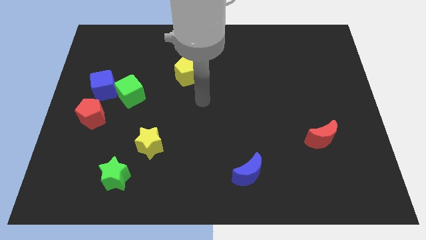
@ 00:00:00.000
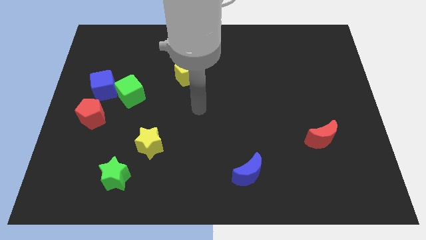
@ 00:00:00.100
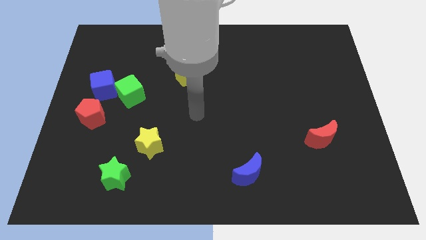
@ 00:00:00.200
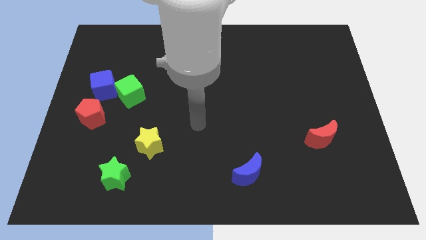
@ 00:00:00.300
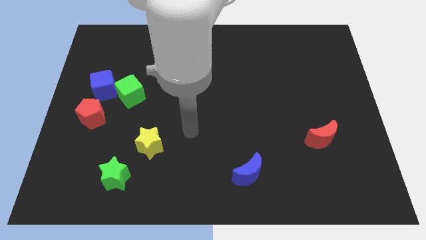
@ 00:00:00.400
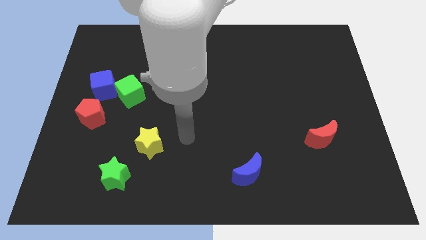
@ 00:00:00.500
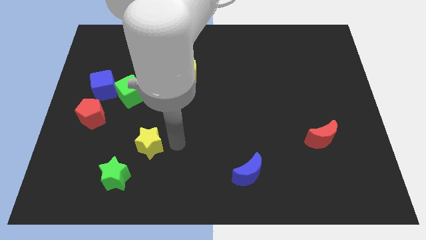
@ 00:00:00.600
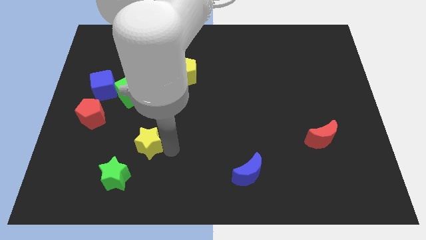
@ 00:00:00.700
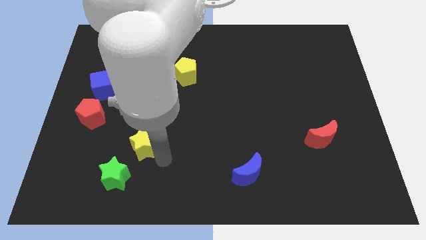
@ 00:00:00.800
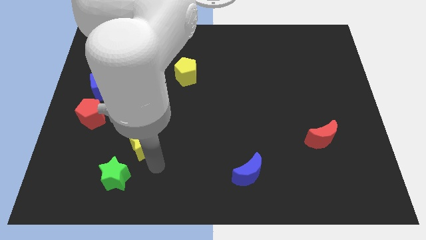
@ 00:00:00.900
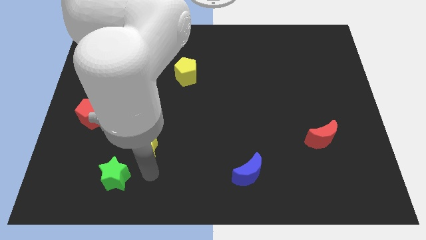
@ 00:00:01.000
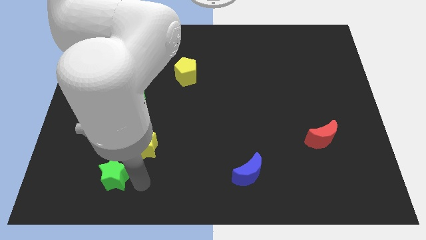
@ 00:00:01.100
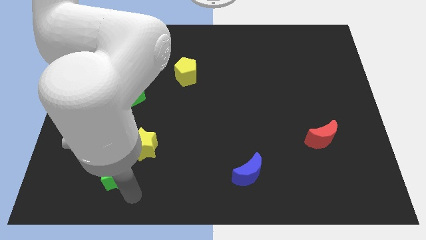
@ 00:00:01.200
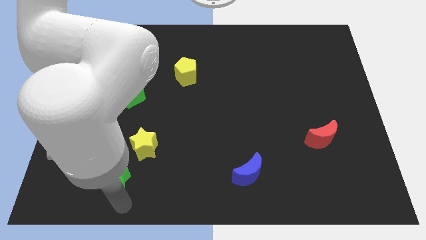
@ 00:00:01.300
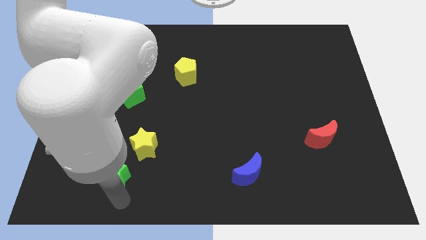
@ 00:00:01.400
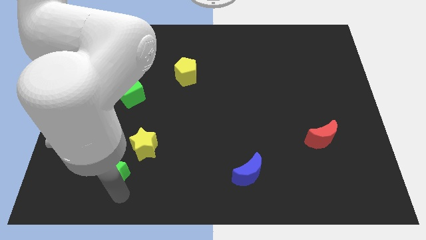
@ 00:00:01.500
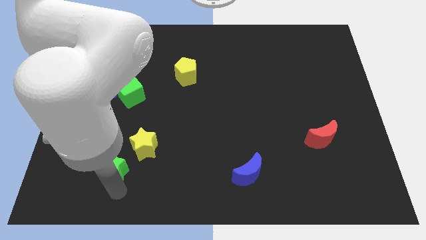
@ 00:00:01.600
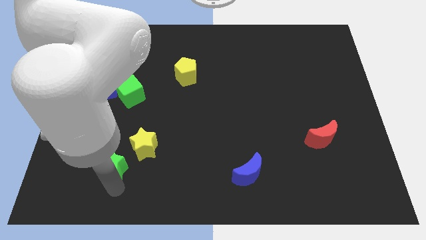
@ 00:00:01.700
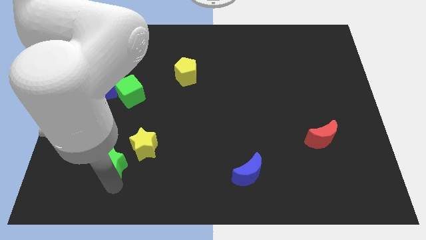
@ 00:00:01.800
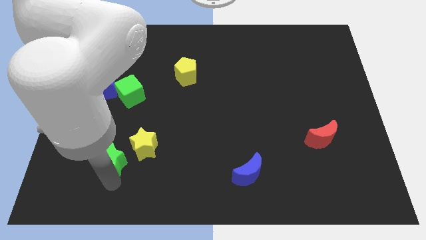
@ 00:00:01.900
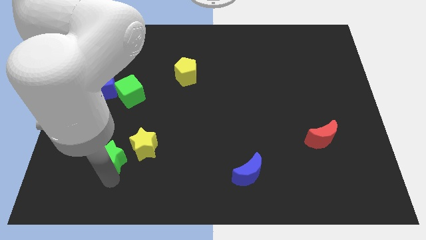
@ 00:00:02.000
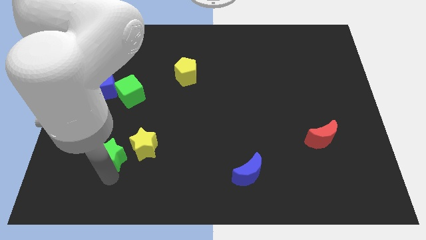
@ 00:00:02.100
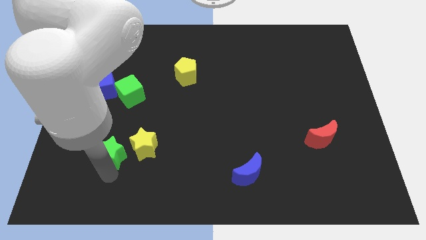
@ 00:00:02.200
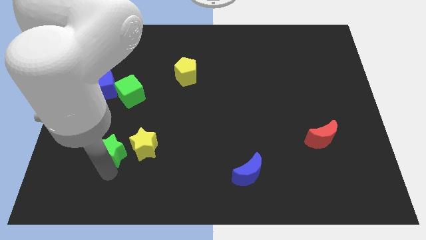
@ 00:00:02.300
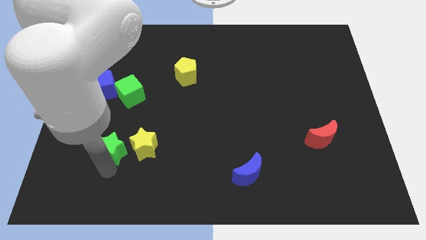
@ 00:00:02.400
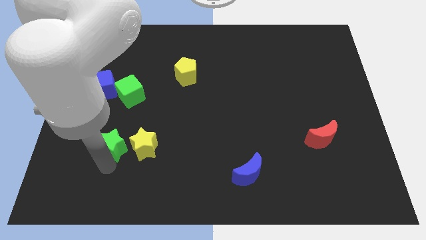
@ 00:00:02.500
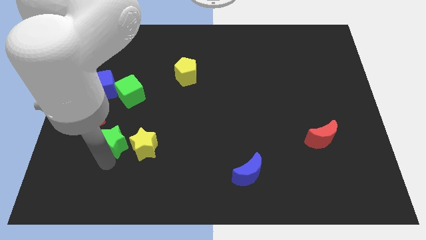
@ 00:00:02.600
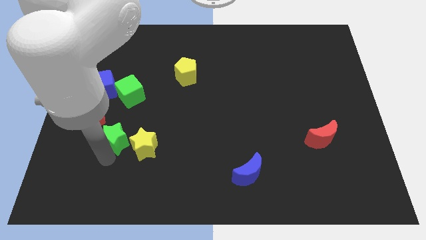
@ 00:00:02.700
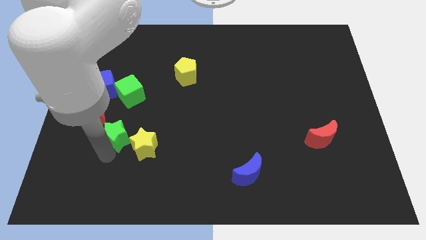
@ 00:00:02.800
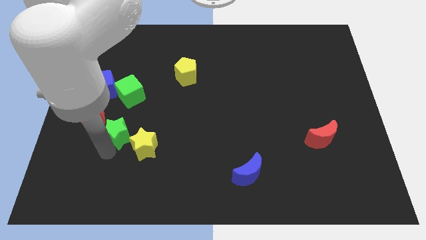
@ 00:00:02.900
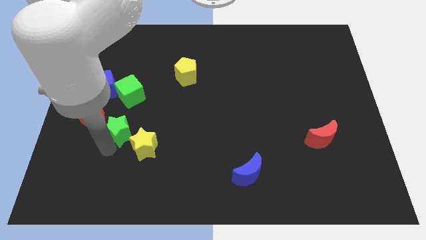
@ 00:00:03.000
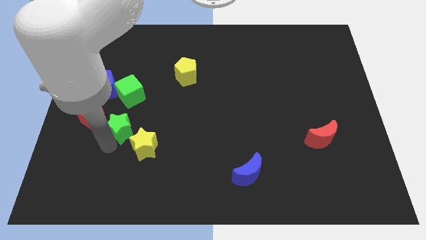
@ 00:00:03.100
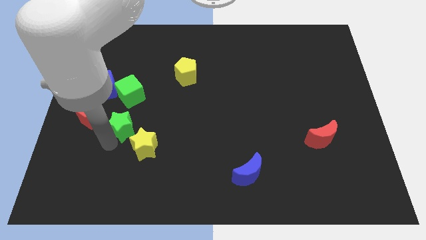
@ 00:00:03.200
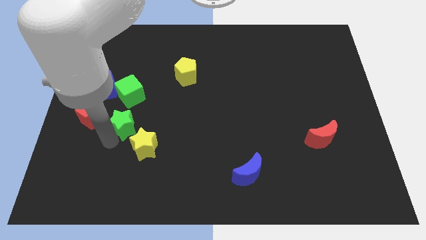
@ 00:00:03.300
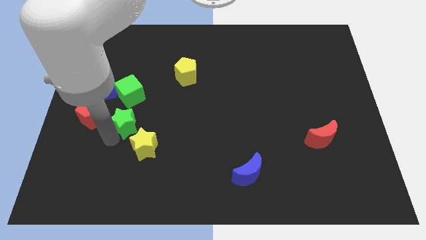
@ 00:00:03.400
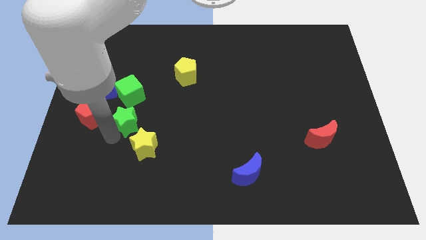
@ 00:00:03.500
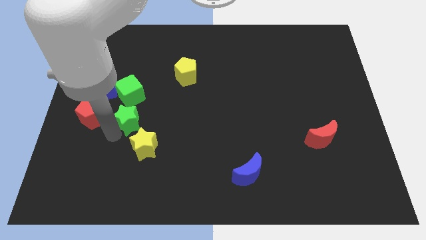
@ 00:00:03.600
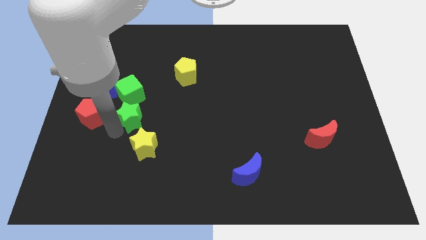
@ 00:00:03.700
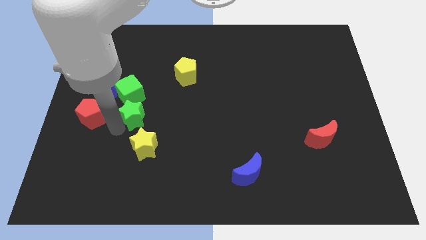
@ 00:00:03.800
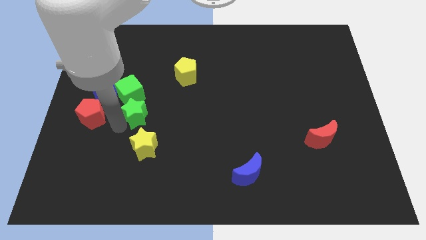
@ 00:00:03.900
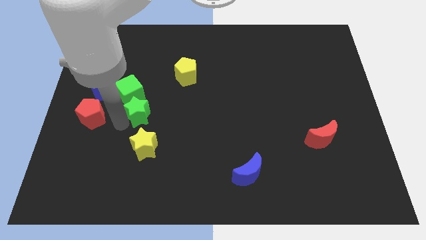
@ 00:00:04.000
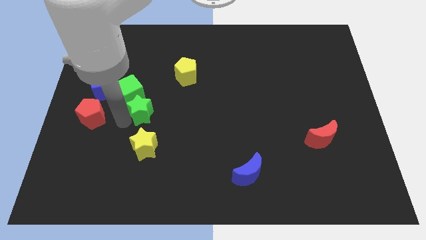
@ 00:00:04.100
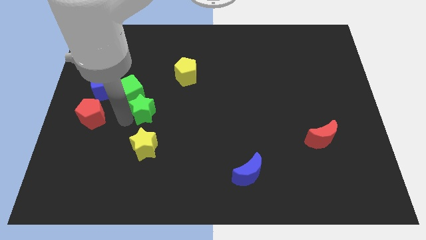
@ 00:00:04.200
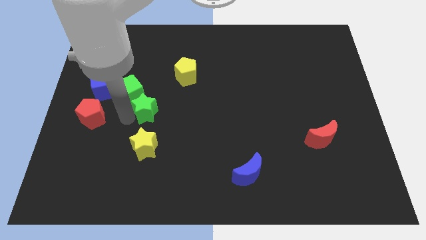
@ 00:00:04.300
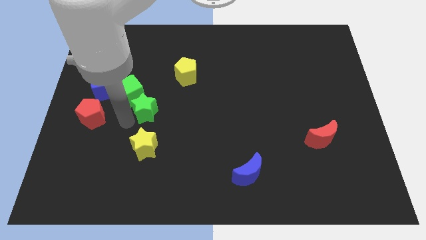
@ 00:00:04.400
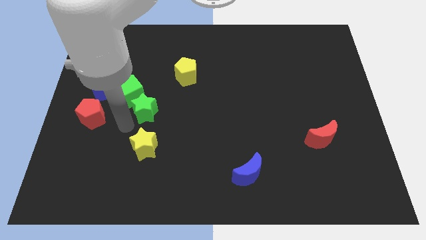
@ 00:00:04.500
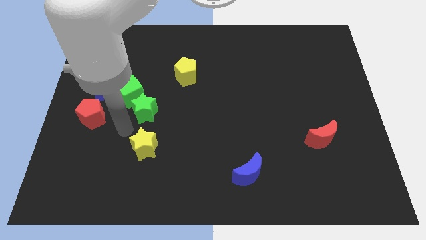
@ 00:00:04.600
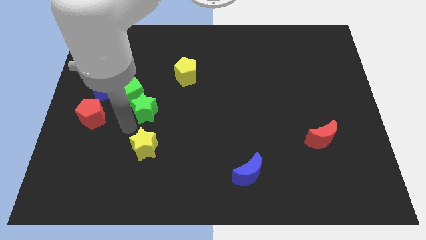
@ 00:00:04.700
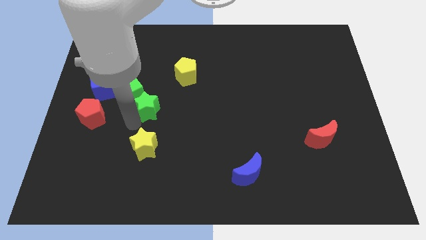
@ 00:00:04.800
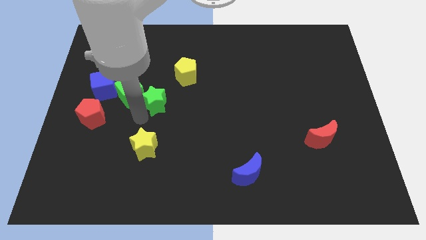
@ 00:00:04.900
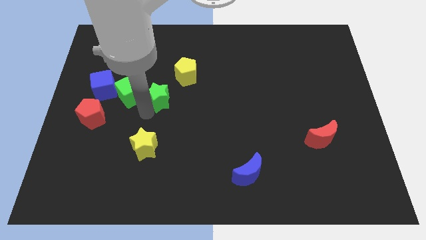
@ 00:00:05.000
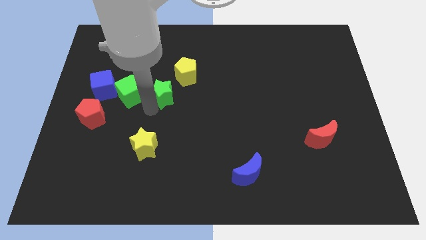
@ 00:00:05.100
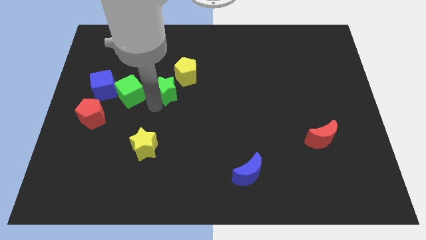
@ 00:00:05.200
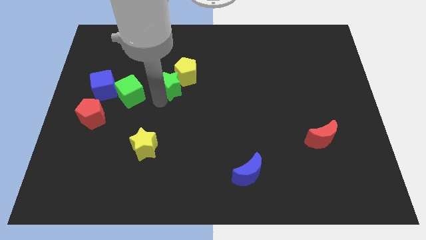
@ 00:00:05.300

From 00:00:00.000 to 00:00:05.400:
push the green star towards the yellow pentagon

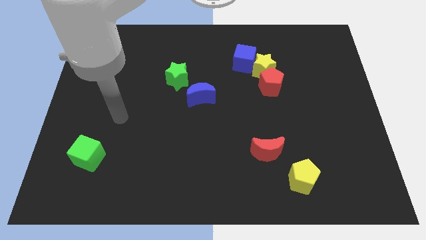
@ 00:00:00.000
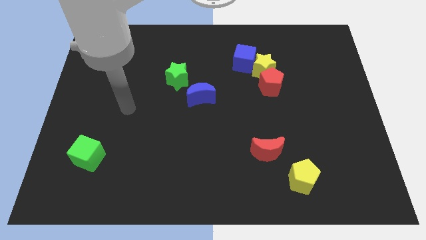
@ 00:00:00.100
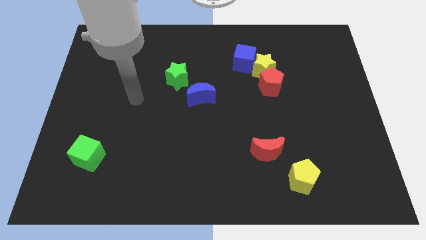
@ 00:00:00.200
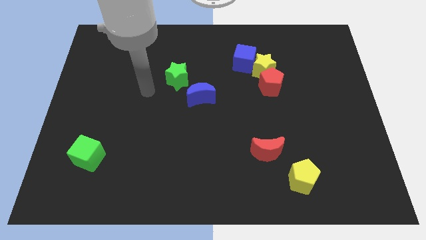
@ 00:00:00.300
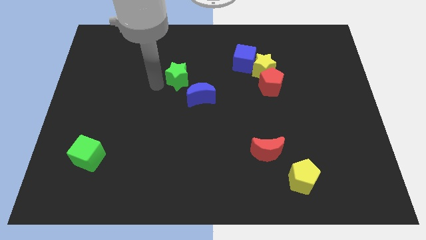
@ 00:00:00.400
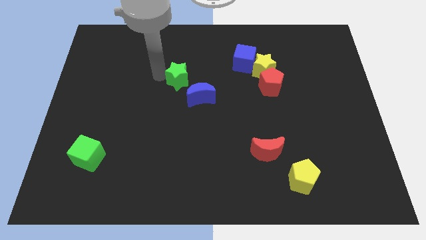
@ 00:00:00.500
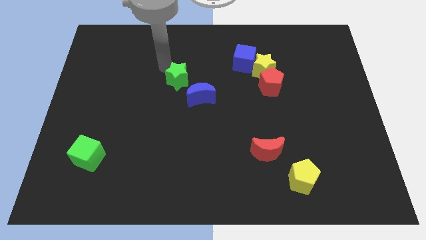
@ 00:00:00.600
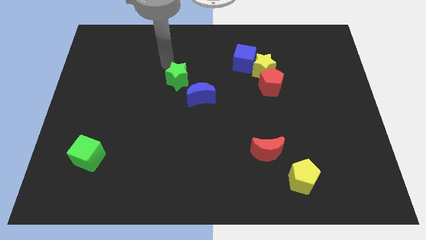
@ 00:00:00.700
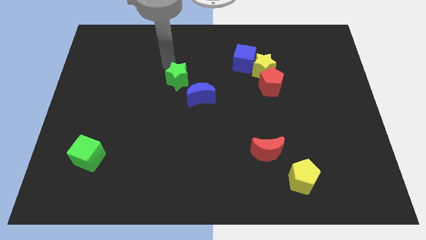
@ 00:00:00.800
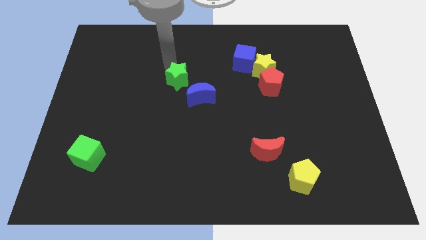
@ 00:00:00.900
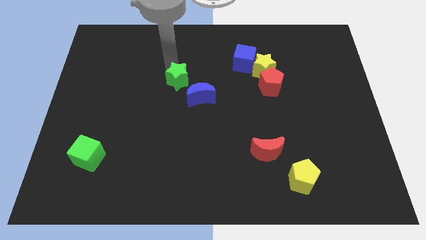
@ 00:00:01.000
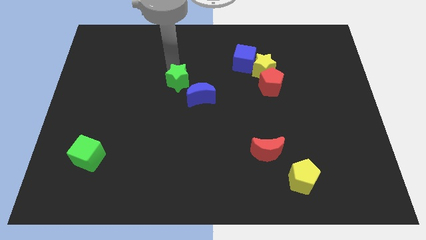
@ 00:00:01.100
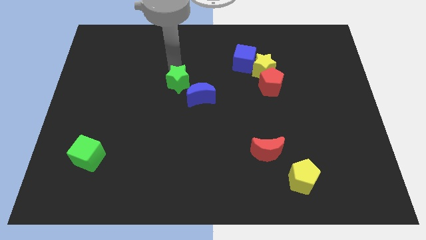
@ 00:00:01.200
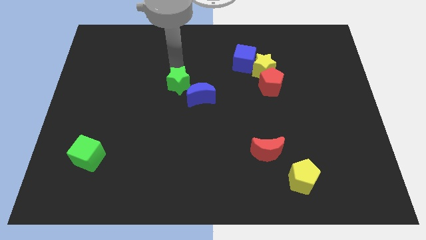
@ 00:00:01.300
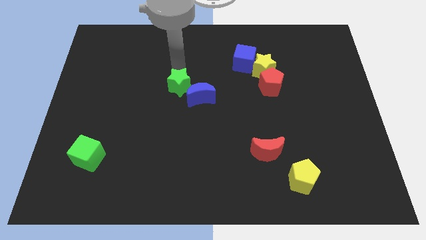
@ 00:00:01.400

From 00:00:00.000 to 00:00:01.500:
move the green star next to the blue moon
